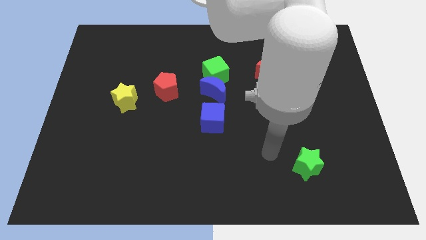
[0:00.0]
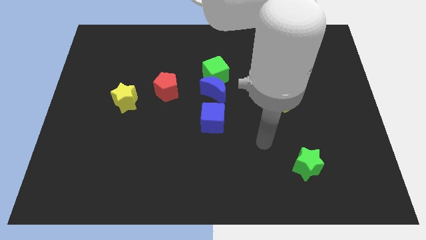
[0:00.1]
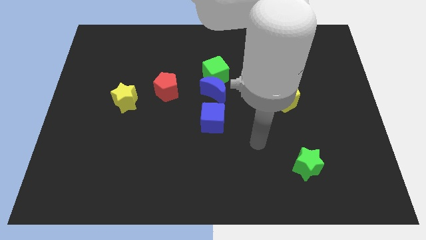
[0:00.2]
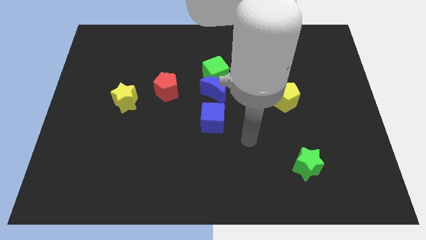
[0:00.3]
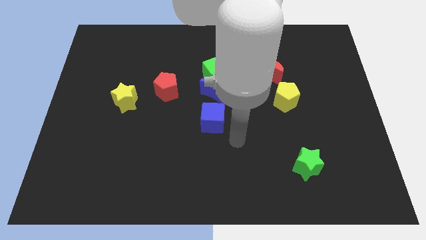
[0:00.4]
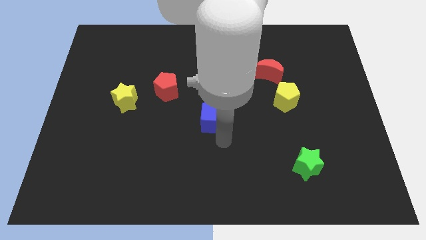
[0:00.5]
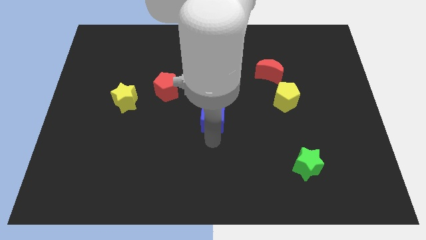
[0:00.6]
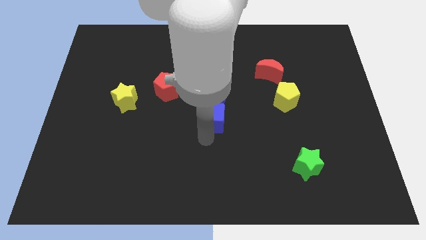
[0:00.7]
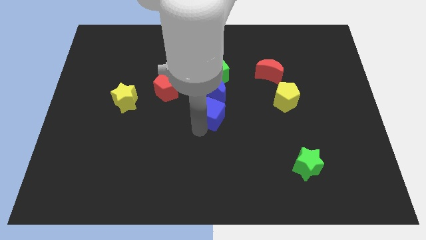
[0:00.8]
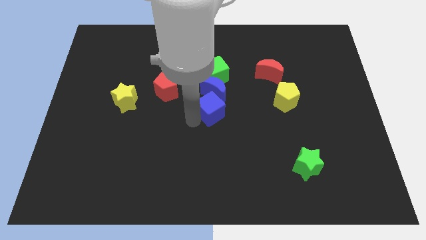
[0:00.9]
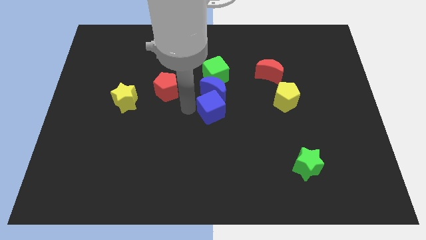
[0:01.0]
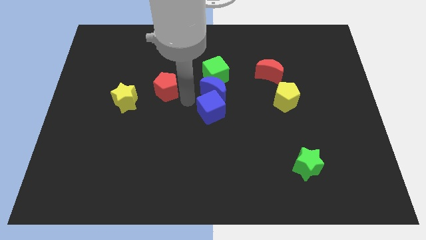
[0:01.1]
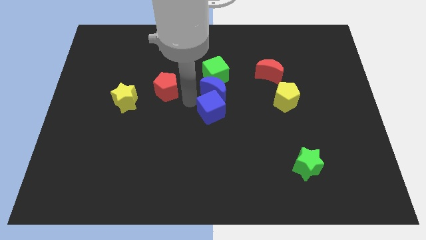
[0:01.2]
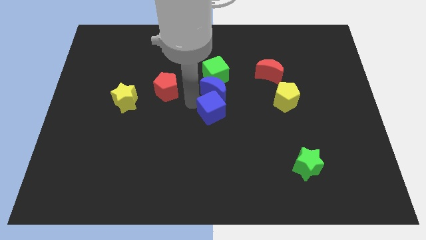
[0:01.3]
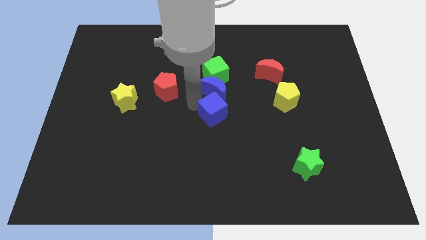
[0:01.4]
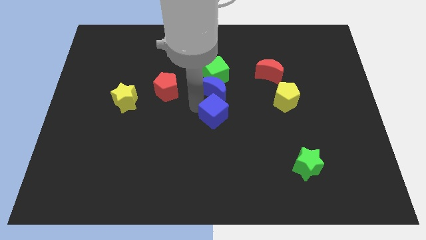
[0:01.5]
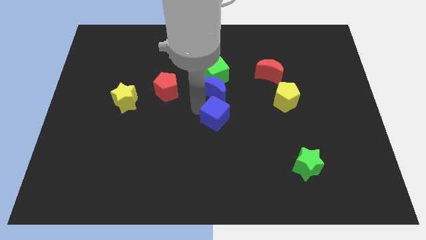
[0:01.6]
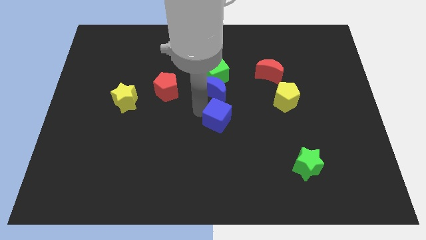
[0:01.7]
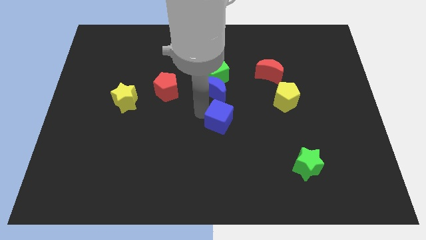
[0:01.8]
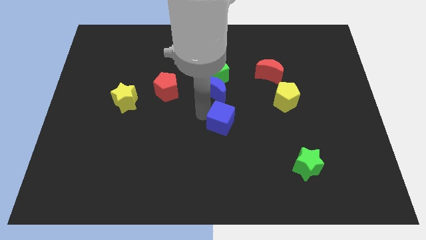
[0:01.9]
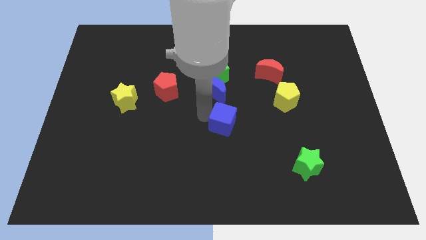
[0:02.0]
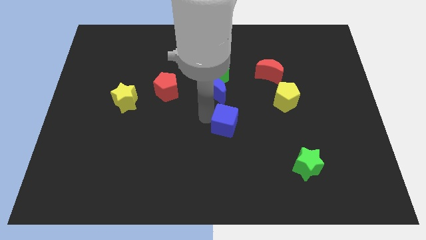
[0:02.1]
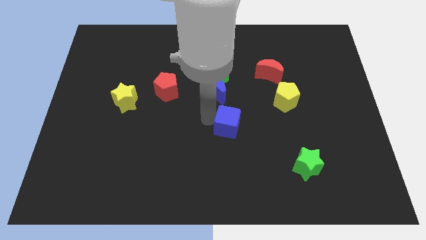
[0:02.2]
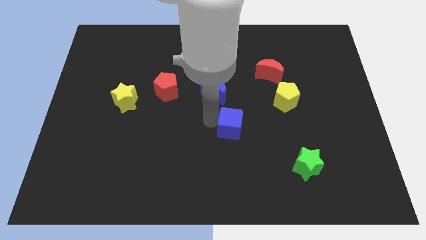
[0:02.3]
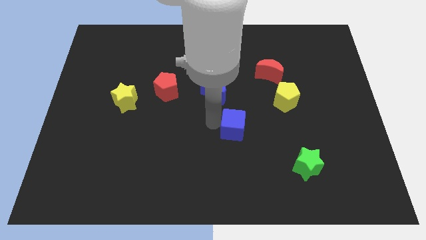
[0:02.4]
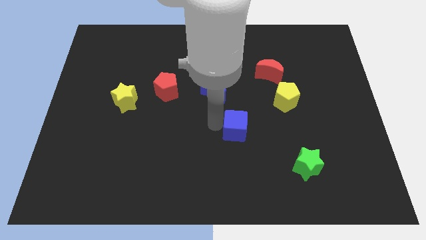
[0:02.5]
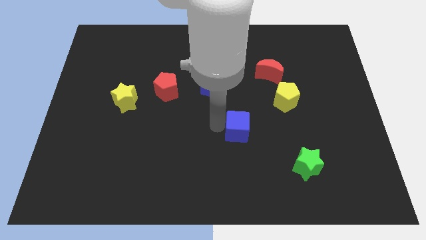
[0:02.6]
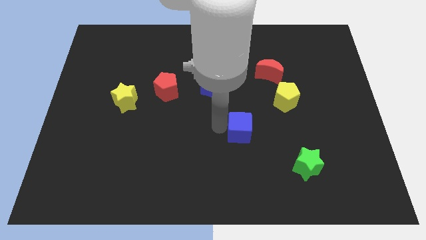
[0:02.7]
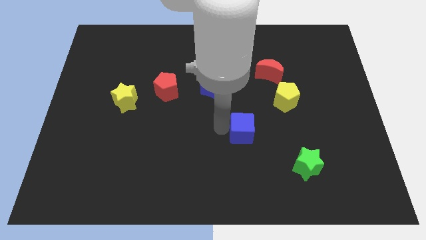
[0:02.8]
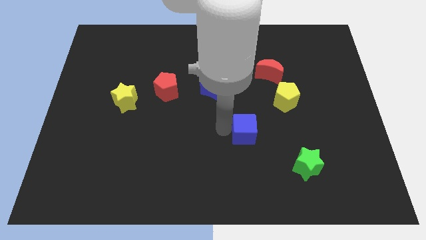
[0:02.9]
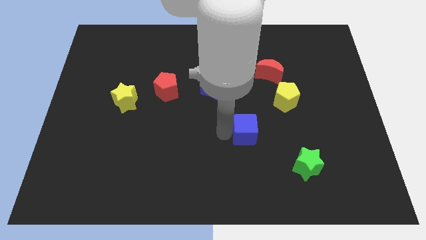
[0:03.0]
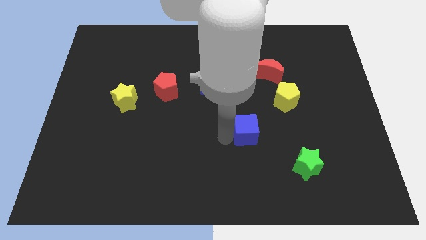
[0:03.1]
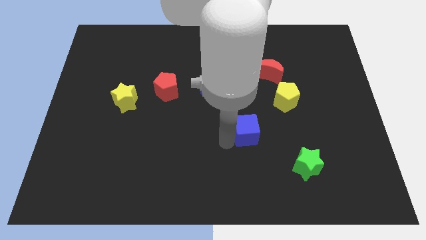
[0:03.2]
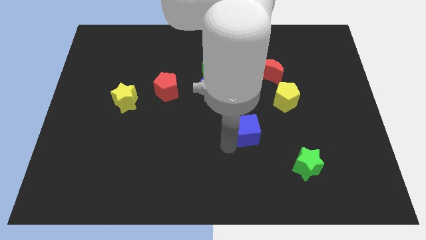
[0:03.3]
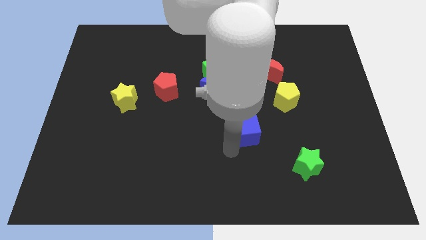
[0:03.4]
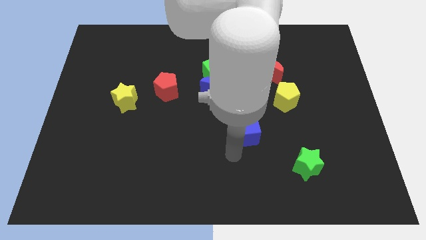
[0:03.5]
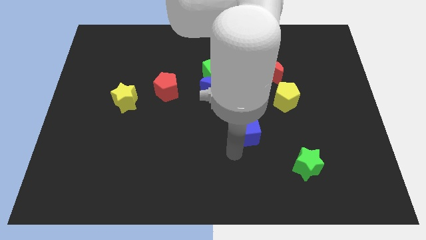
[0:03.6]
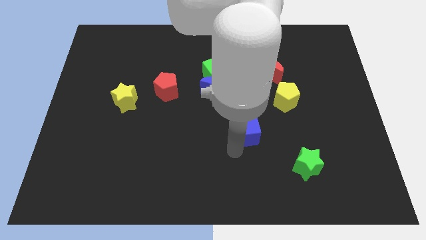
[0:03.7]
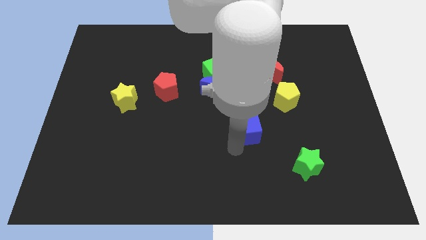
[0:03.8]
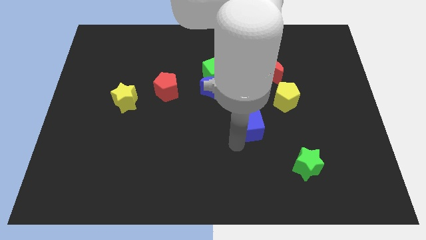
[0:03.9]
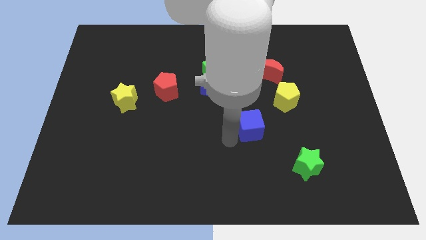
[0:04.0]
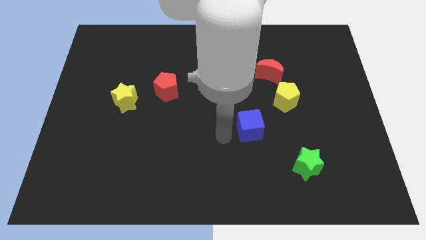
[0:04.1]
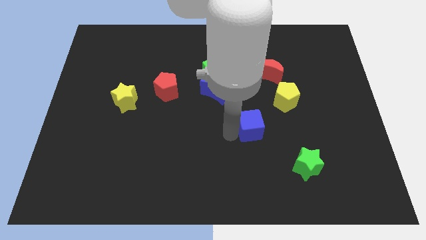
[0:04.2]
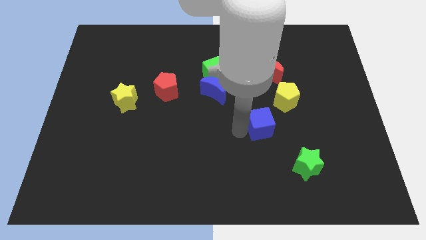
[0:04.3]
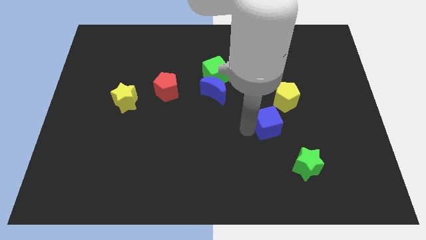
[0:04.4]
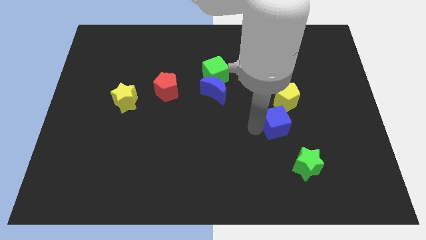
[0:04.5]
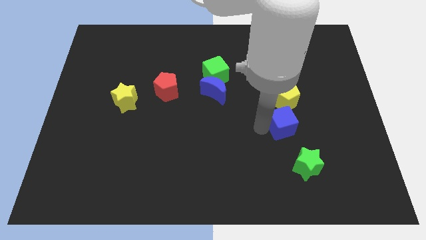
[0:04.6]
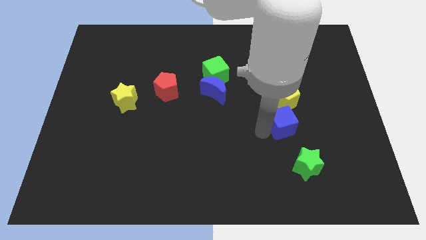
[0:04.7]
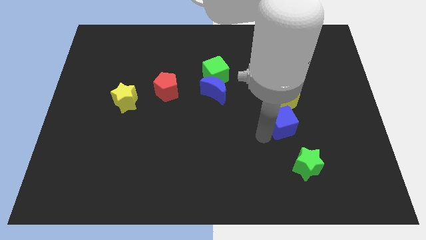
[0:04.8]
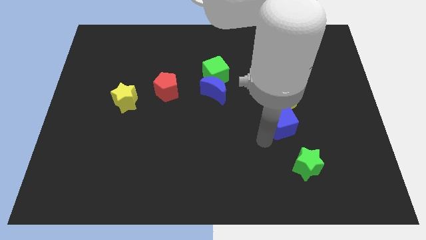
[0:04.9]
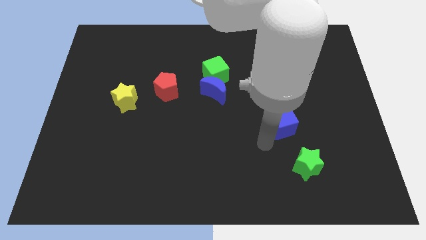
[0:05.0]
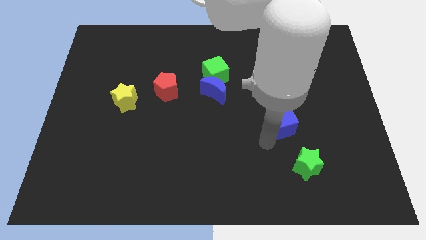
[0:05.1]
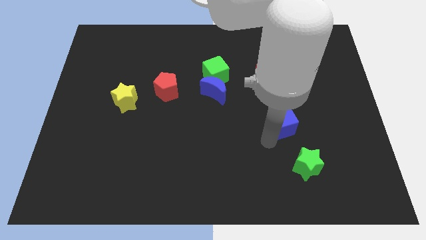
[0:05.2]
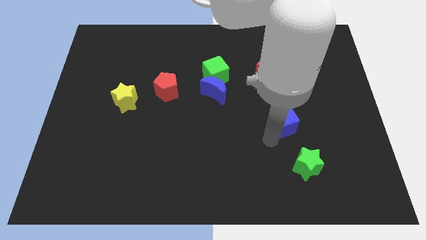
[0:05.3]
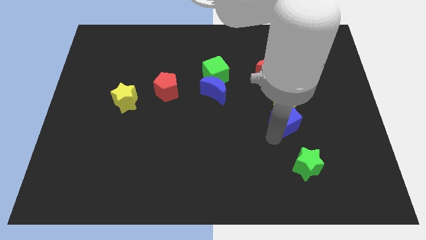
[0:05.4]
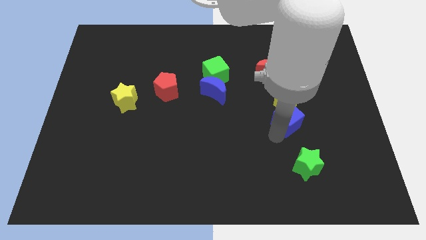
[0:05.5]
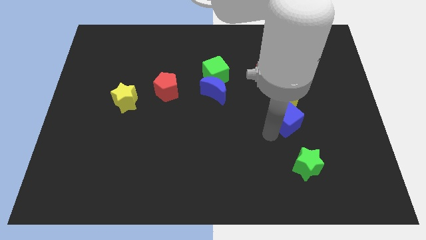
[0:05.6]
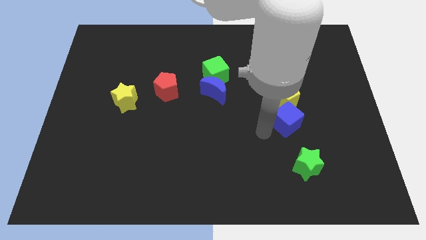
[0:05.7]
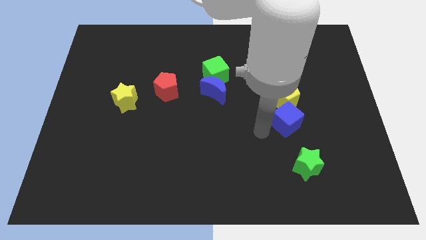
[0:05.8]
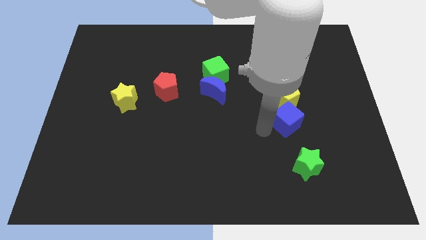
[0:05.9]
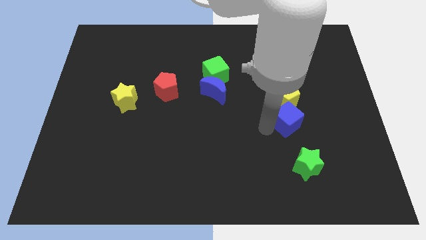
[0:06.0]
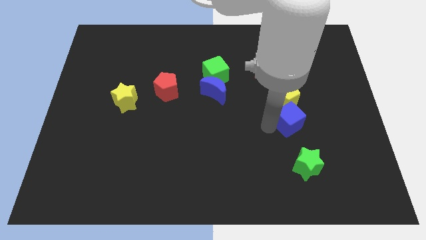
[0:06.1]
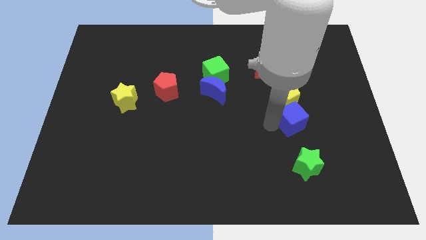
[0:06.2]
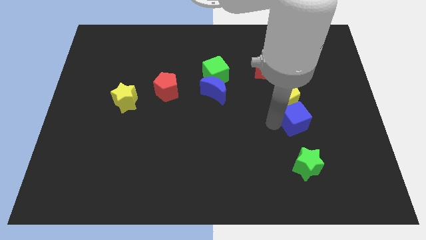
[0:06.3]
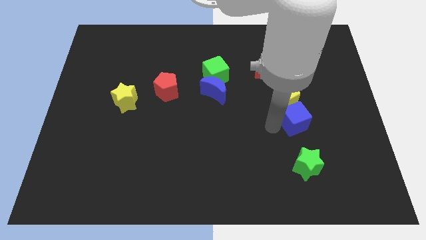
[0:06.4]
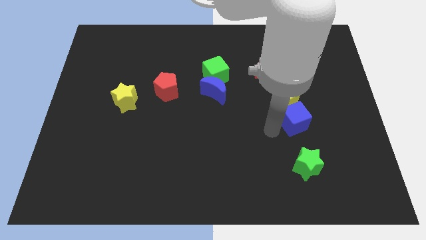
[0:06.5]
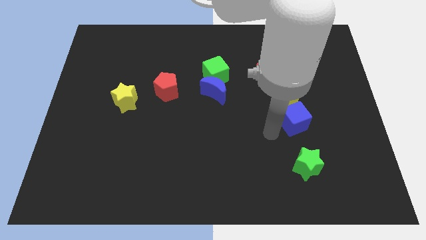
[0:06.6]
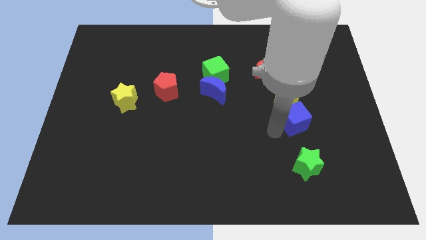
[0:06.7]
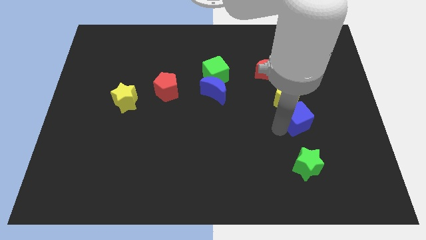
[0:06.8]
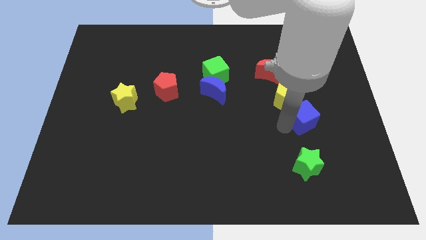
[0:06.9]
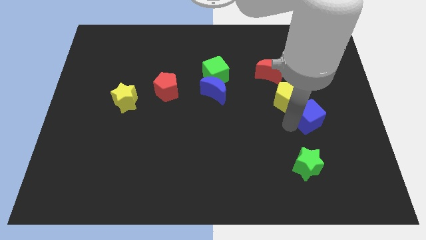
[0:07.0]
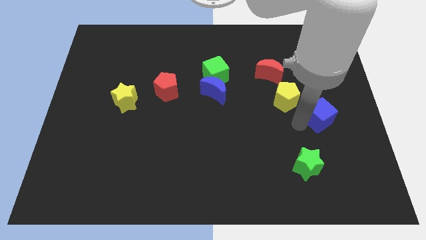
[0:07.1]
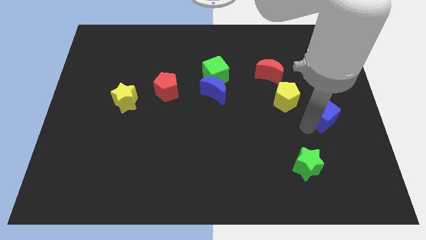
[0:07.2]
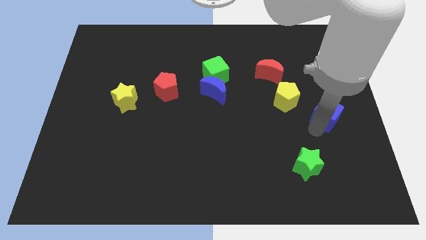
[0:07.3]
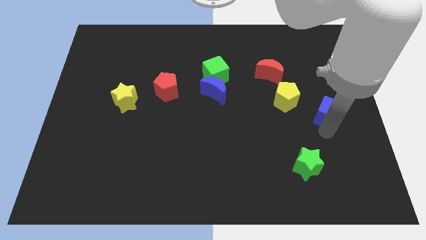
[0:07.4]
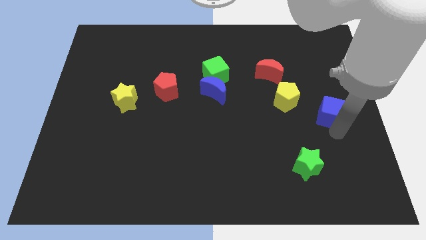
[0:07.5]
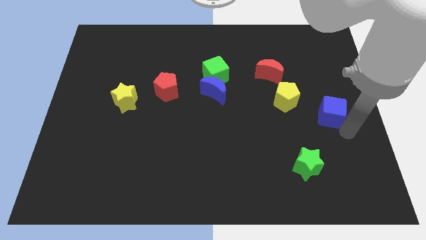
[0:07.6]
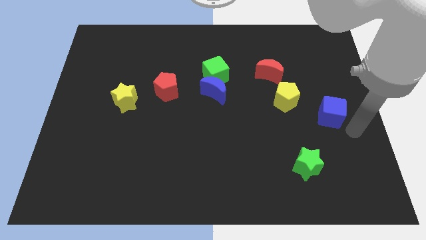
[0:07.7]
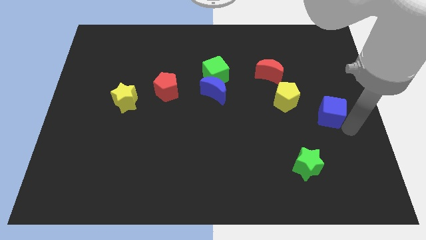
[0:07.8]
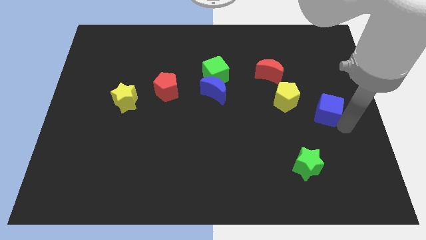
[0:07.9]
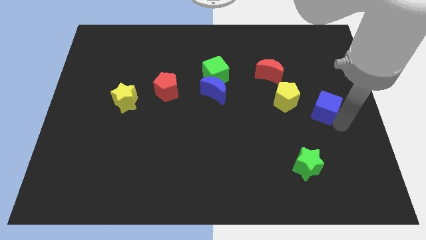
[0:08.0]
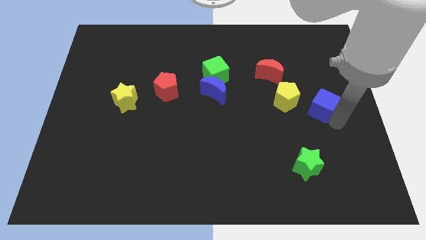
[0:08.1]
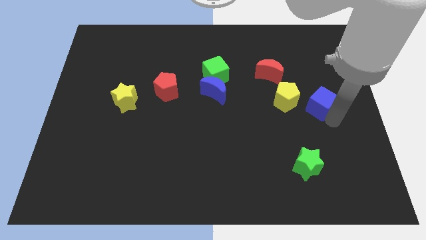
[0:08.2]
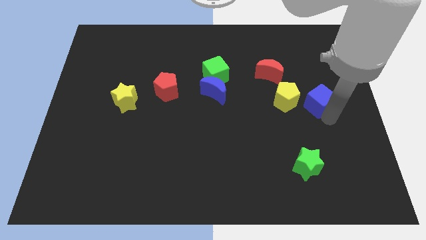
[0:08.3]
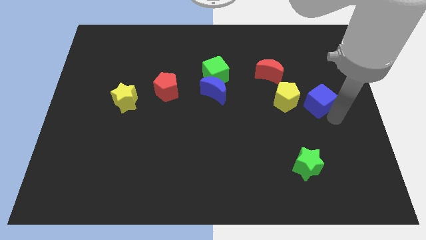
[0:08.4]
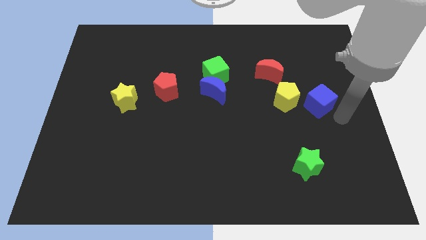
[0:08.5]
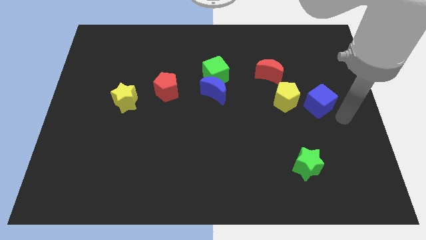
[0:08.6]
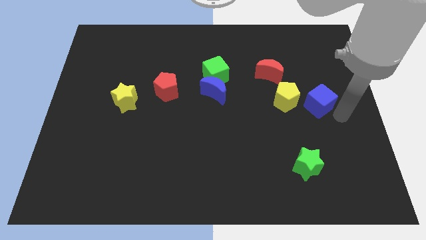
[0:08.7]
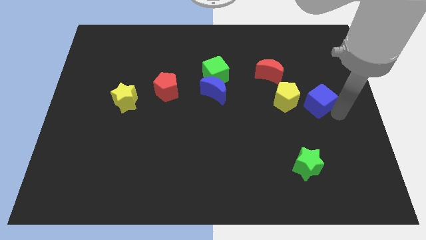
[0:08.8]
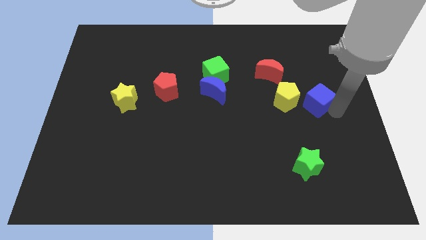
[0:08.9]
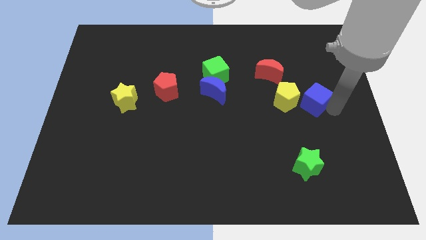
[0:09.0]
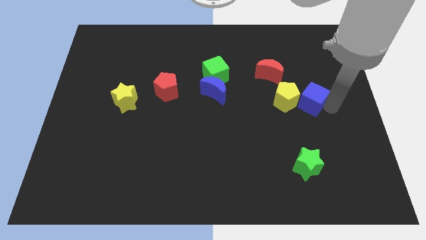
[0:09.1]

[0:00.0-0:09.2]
put the blue cube to the bottom right side of the red moon
